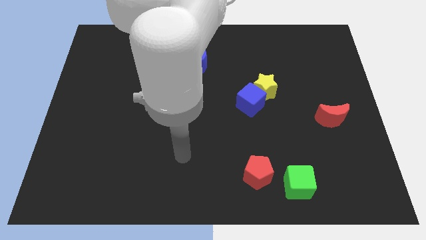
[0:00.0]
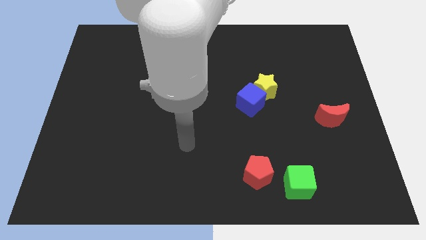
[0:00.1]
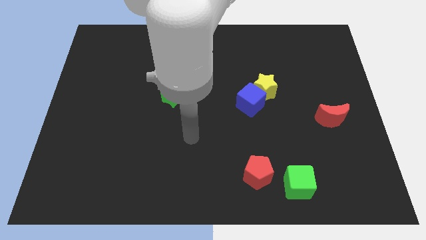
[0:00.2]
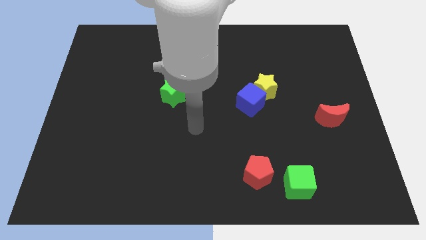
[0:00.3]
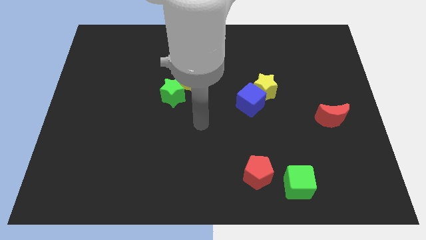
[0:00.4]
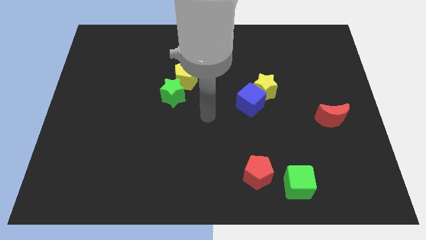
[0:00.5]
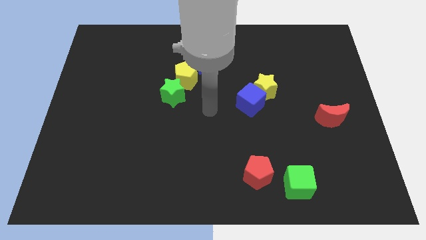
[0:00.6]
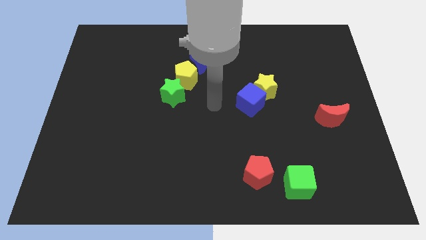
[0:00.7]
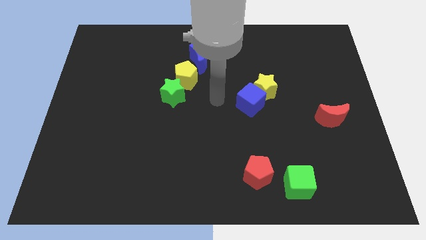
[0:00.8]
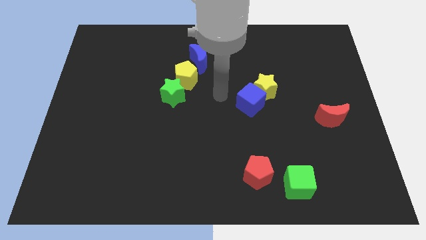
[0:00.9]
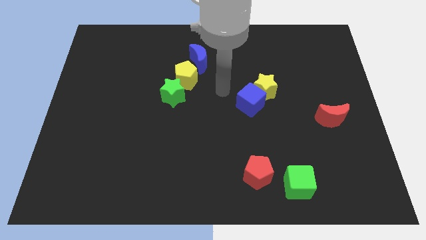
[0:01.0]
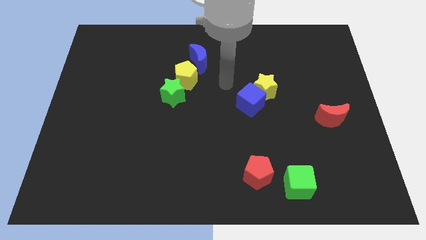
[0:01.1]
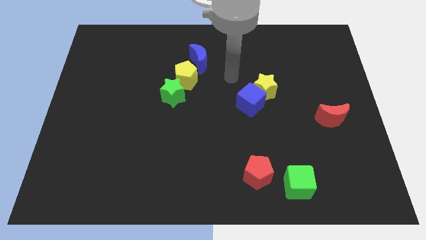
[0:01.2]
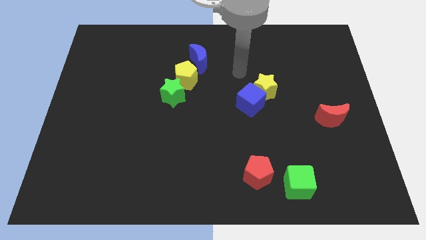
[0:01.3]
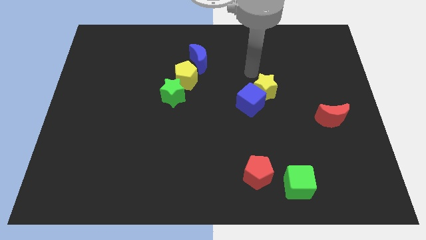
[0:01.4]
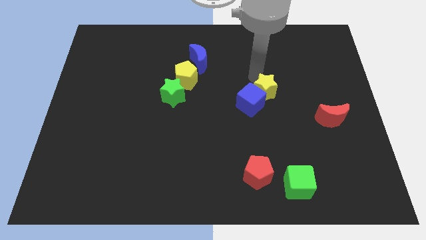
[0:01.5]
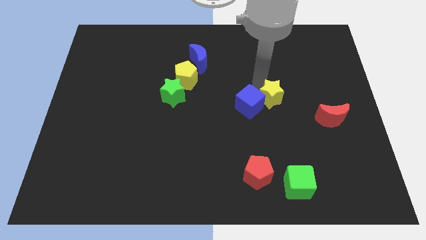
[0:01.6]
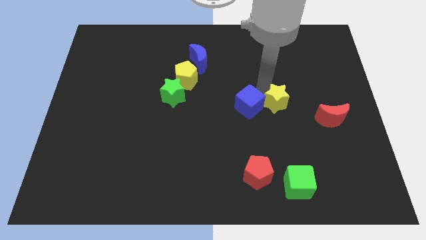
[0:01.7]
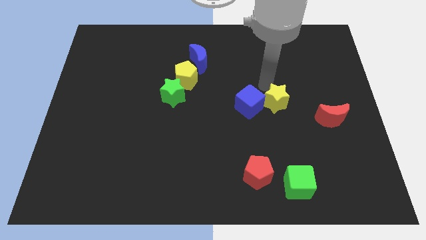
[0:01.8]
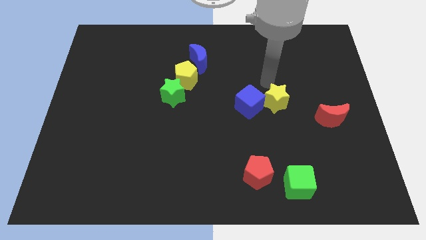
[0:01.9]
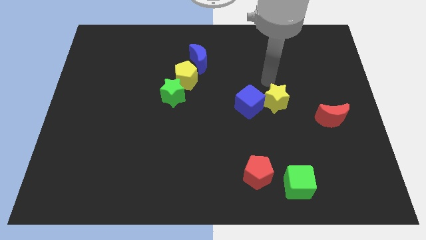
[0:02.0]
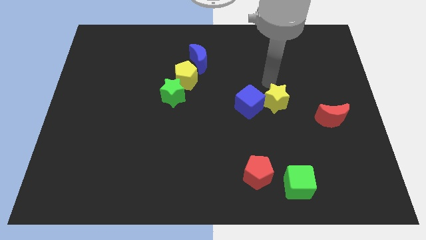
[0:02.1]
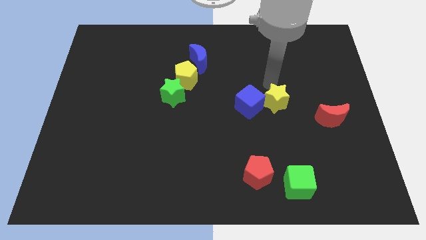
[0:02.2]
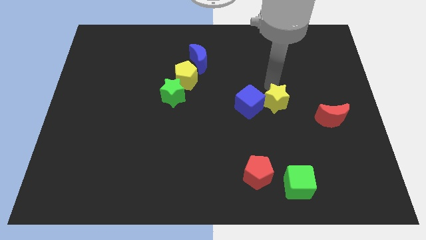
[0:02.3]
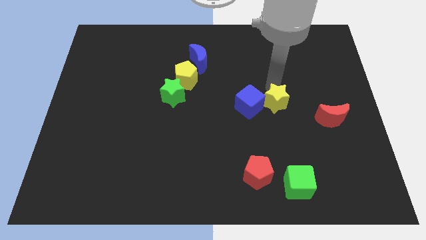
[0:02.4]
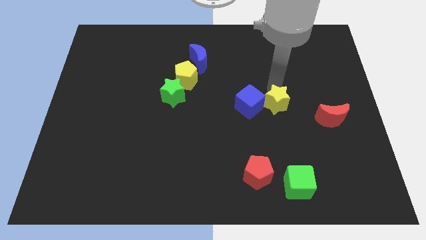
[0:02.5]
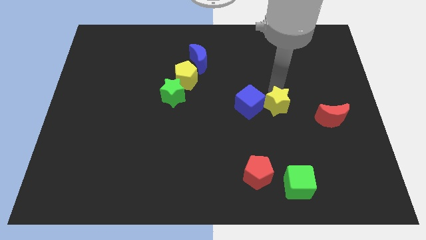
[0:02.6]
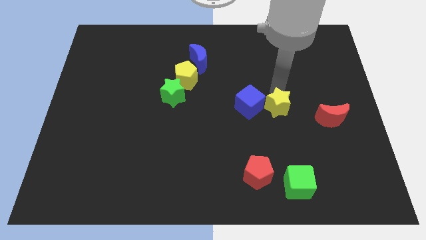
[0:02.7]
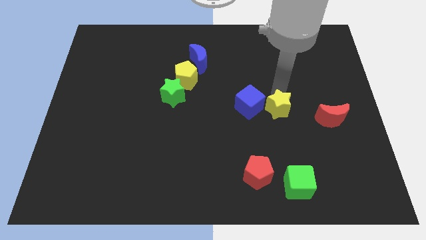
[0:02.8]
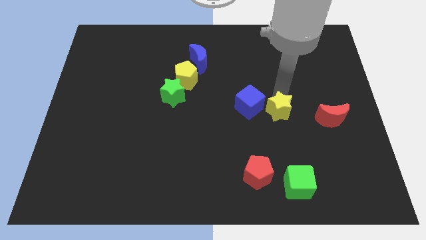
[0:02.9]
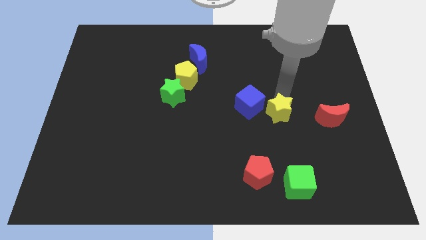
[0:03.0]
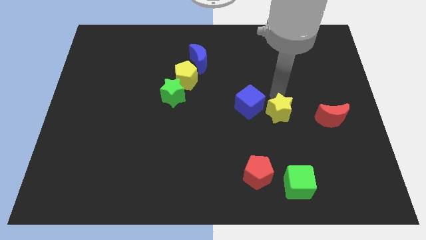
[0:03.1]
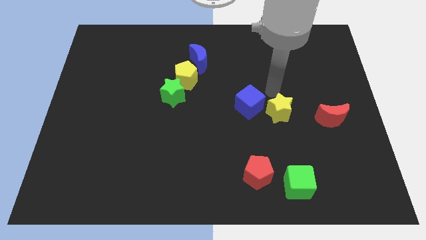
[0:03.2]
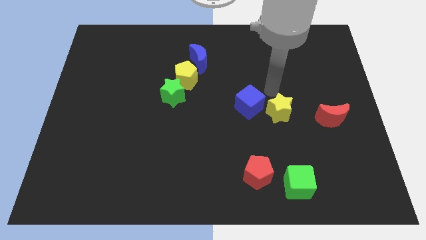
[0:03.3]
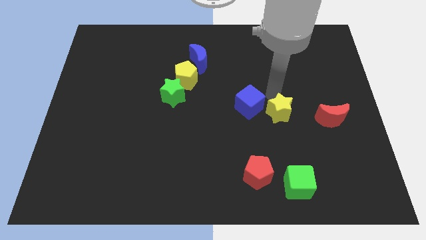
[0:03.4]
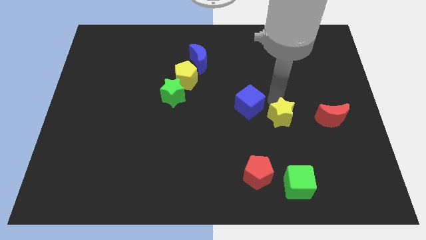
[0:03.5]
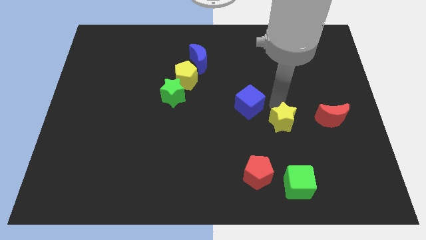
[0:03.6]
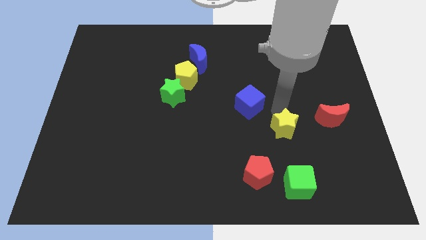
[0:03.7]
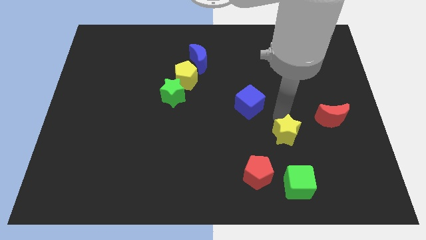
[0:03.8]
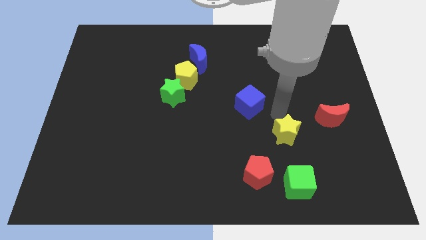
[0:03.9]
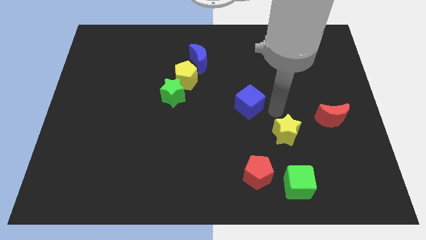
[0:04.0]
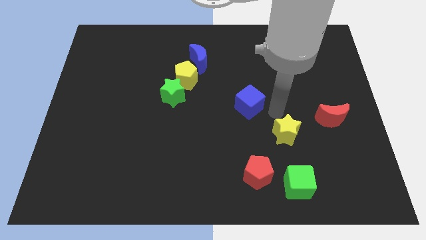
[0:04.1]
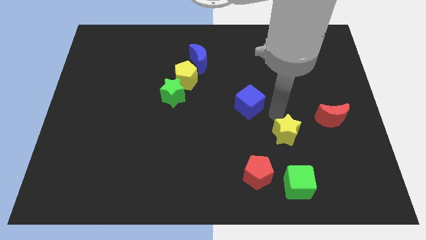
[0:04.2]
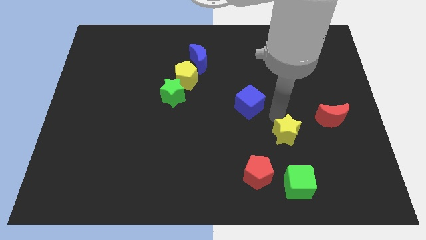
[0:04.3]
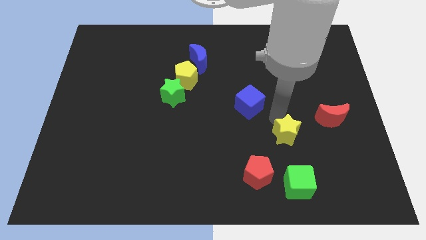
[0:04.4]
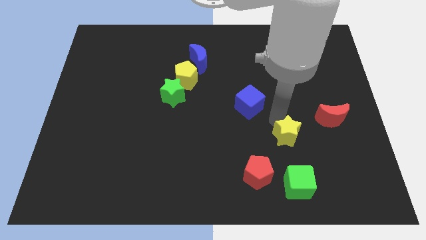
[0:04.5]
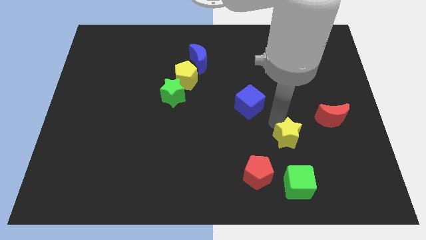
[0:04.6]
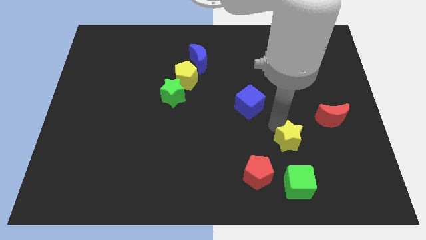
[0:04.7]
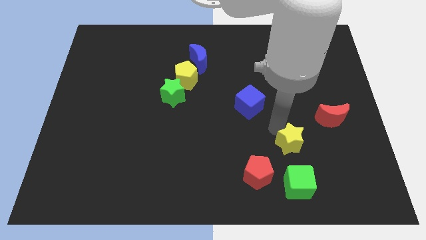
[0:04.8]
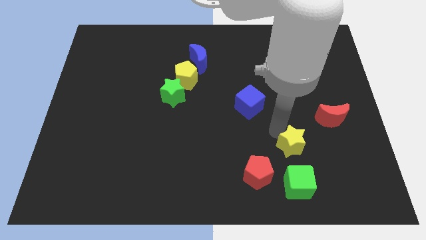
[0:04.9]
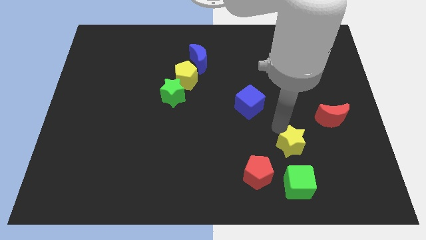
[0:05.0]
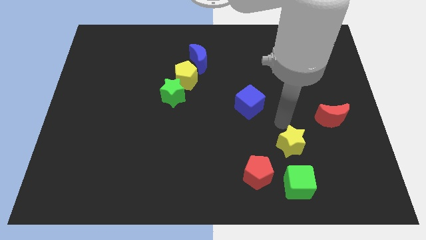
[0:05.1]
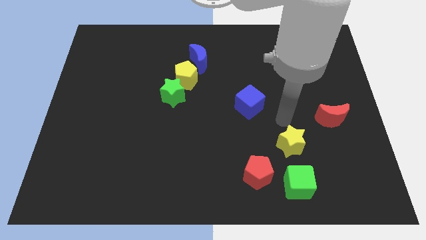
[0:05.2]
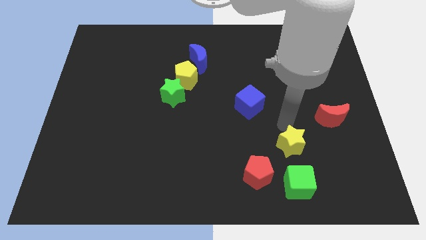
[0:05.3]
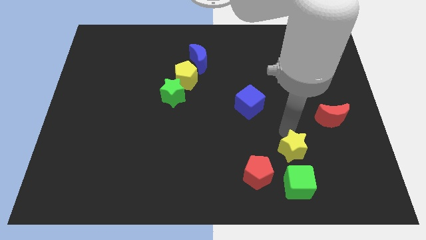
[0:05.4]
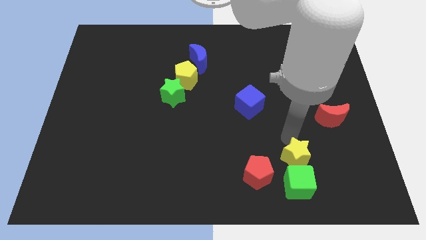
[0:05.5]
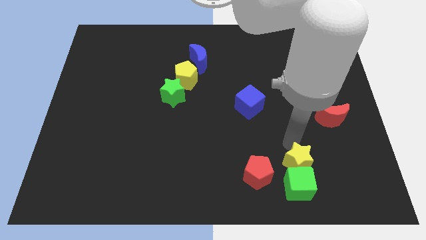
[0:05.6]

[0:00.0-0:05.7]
move the yellow star towards the green cube

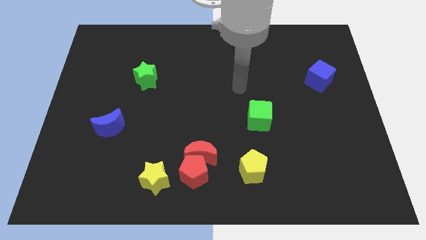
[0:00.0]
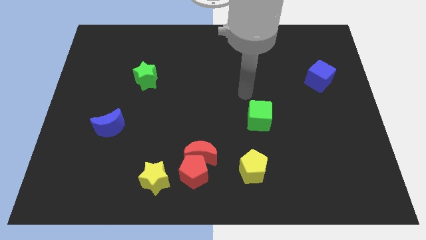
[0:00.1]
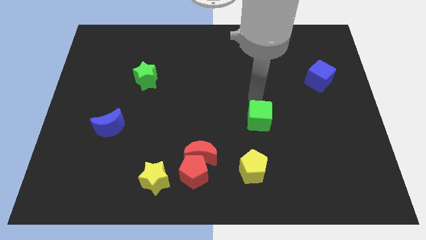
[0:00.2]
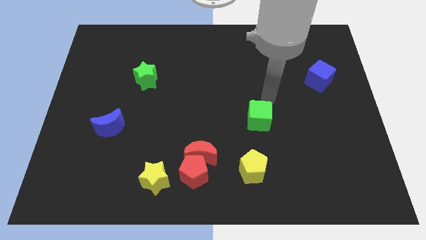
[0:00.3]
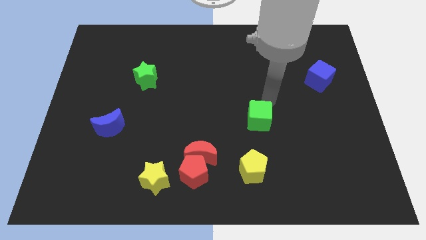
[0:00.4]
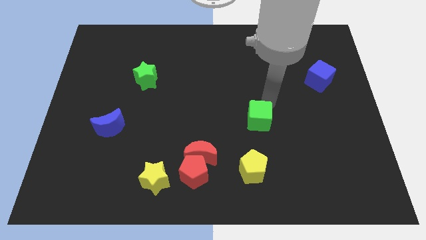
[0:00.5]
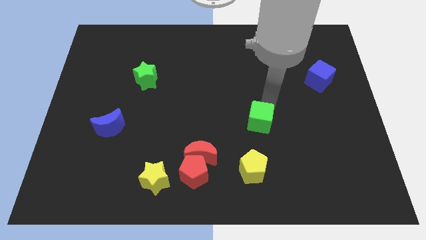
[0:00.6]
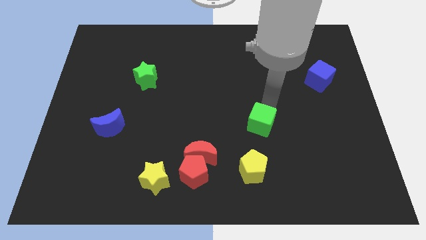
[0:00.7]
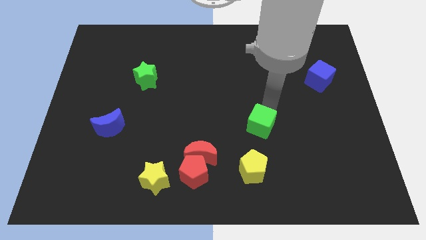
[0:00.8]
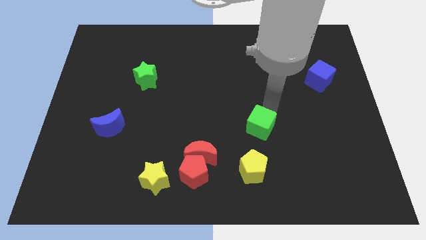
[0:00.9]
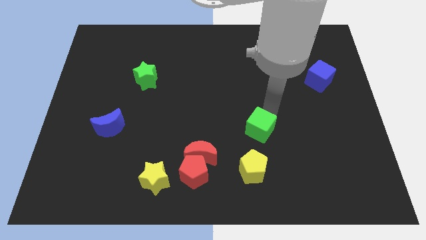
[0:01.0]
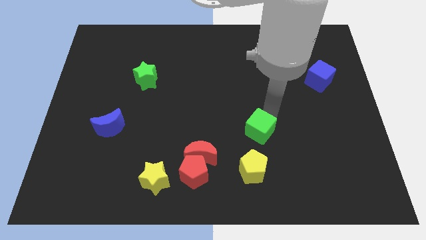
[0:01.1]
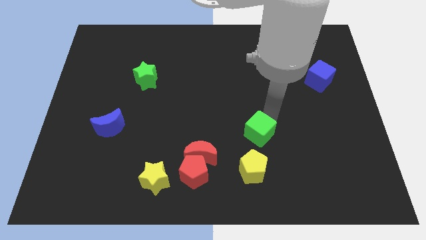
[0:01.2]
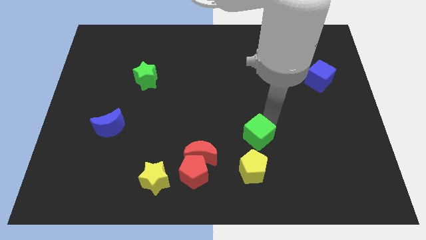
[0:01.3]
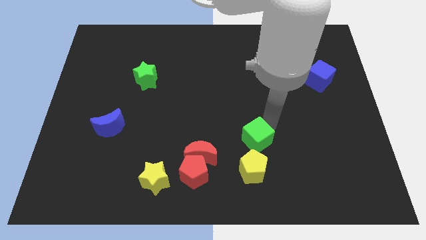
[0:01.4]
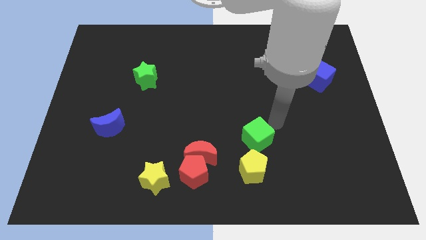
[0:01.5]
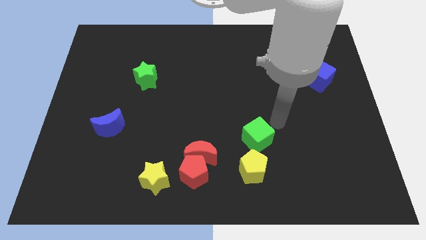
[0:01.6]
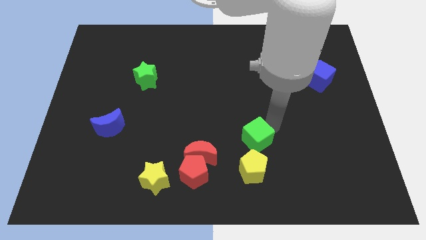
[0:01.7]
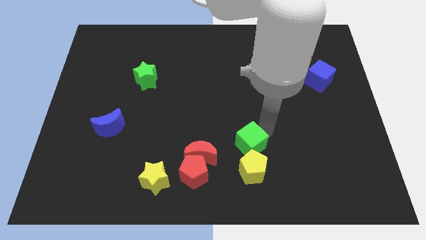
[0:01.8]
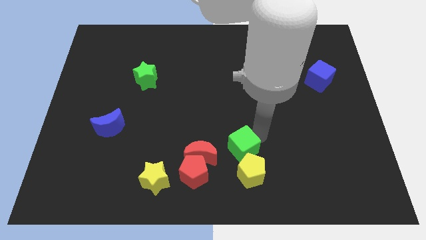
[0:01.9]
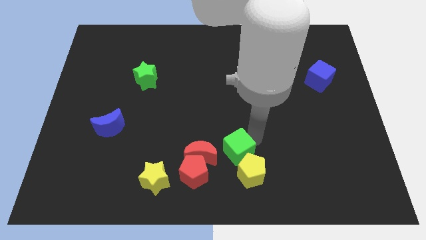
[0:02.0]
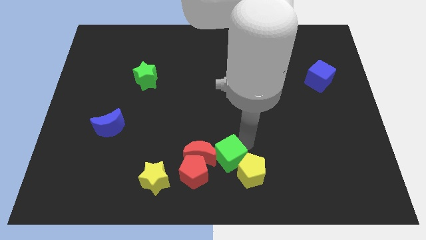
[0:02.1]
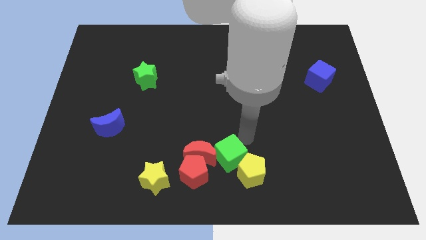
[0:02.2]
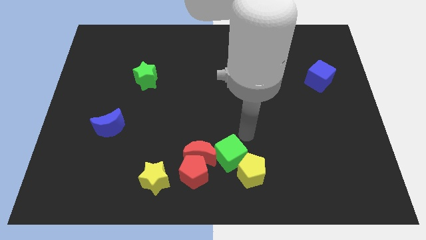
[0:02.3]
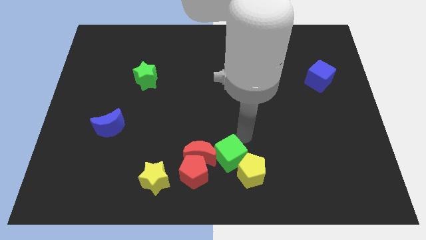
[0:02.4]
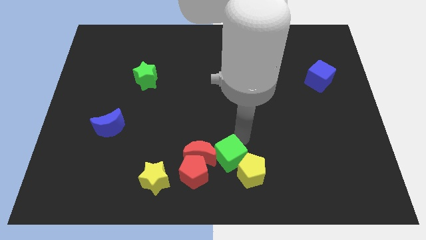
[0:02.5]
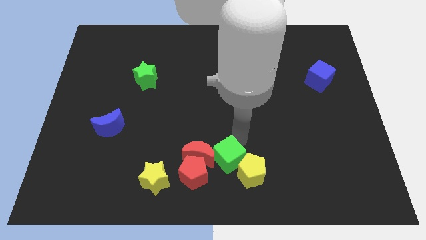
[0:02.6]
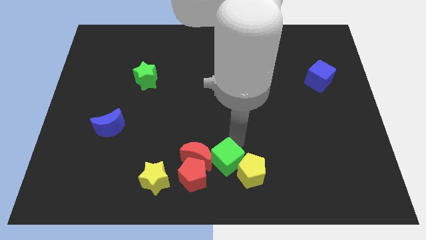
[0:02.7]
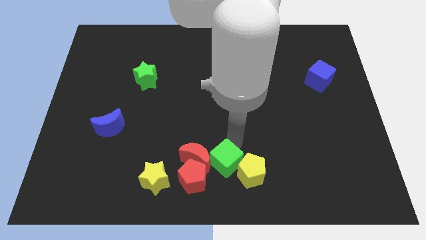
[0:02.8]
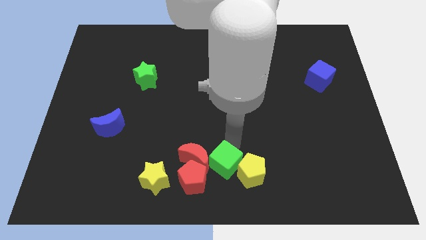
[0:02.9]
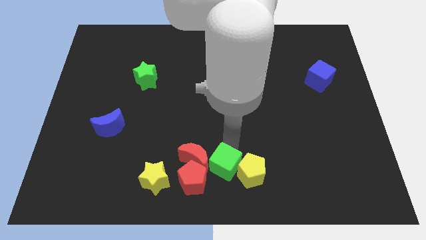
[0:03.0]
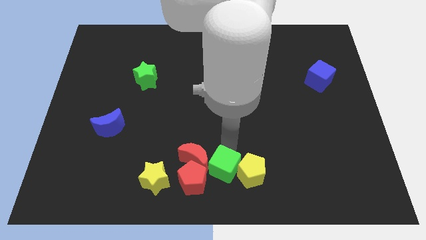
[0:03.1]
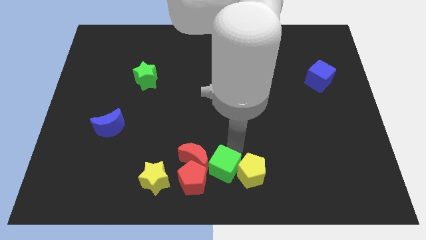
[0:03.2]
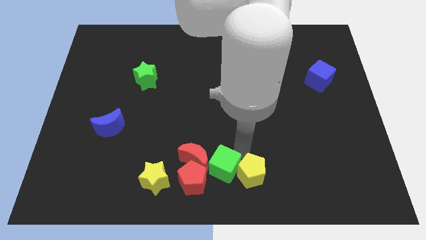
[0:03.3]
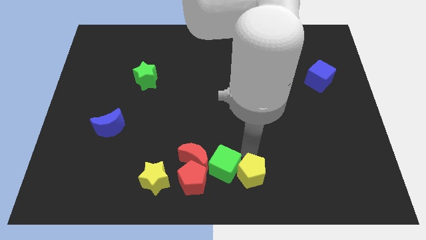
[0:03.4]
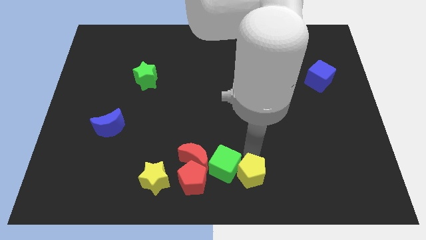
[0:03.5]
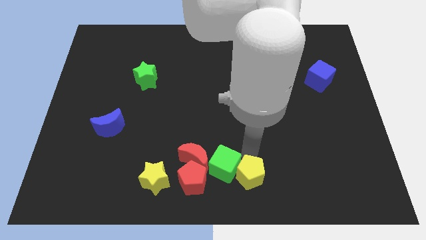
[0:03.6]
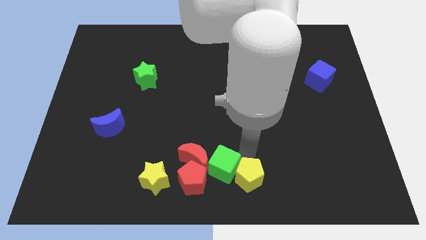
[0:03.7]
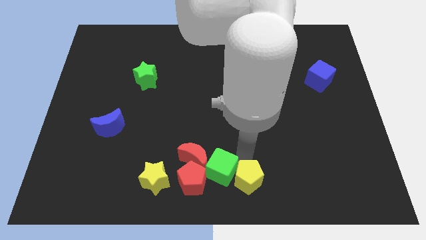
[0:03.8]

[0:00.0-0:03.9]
move the green cube to the red pentagon
